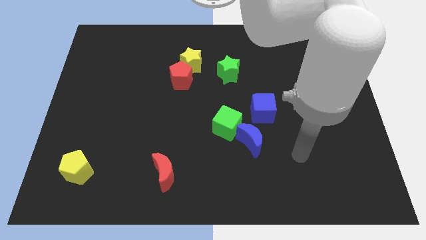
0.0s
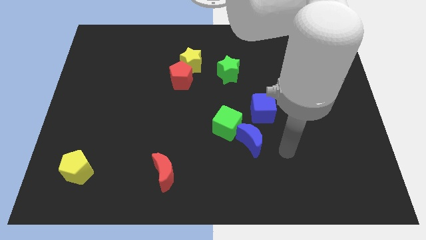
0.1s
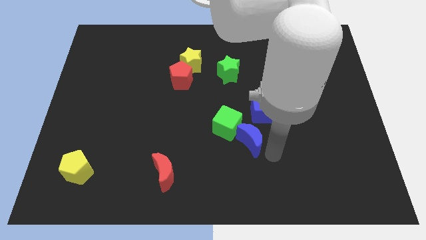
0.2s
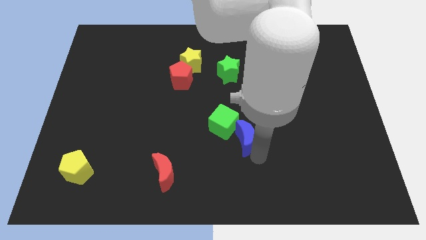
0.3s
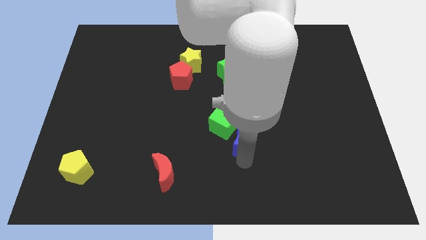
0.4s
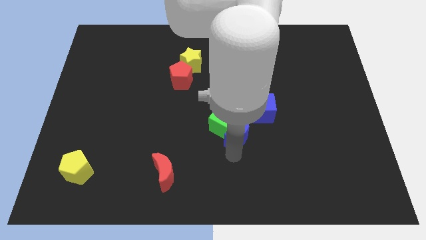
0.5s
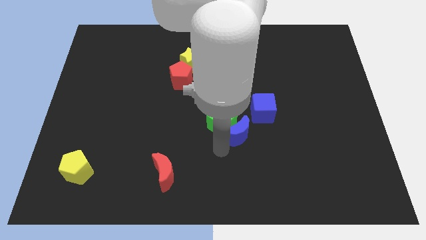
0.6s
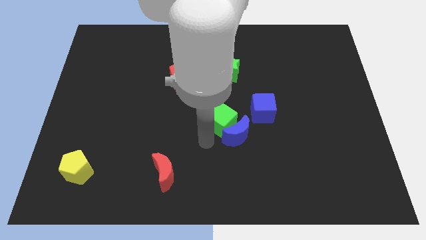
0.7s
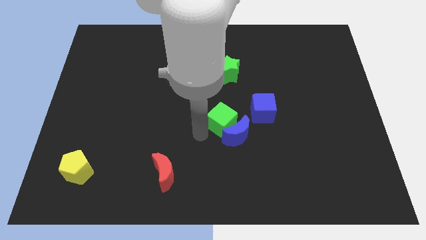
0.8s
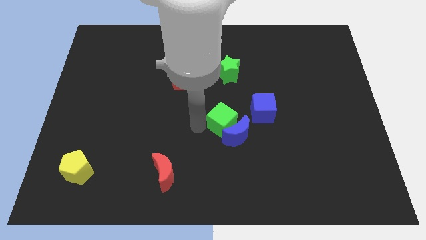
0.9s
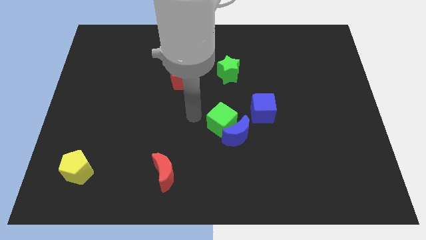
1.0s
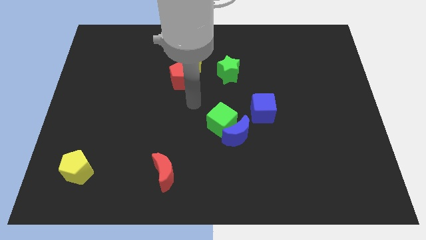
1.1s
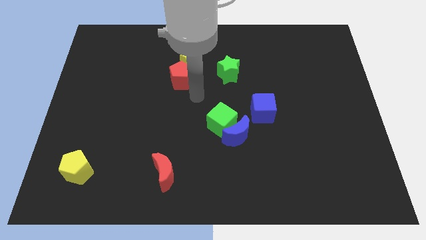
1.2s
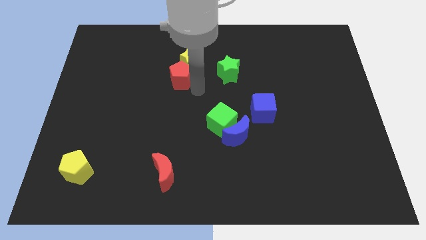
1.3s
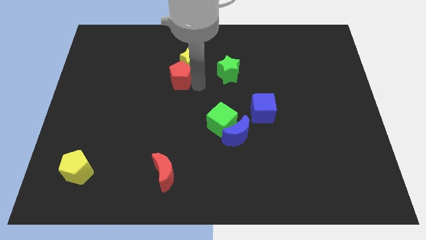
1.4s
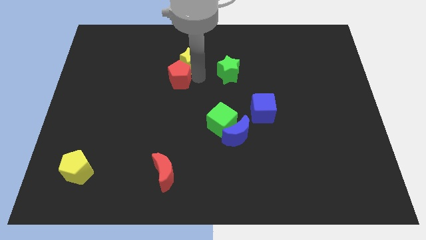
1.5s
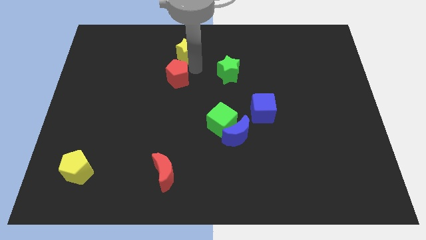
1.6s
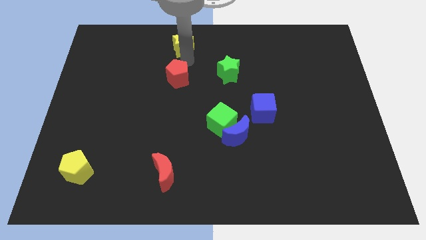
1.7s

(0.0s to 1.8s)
pull the red pentagon apart from the yellow star

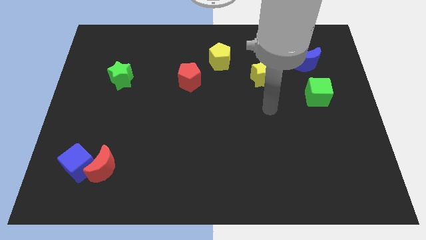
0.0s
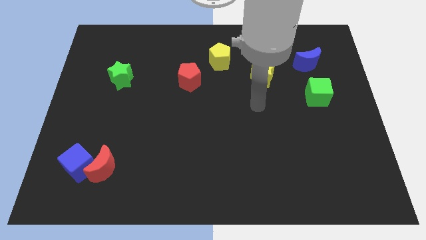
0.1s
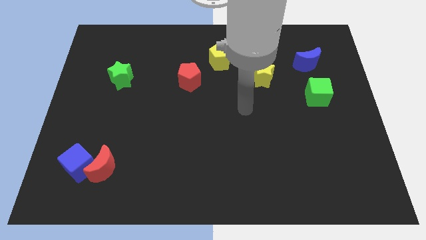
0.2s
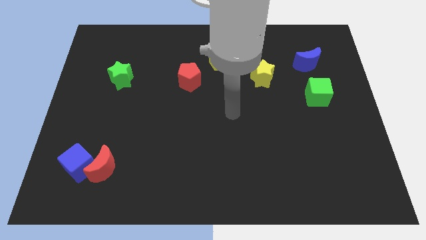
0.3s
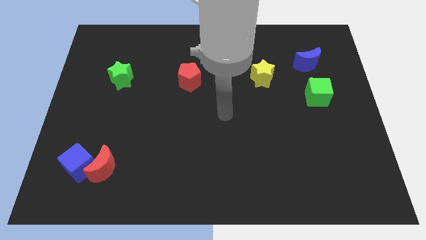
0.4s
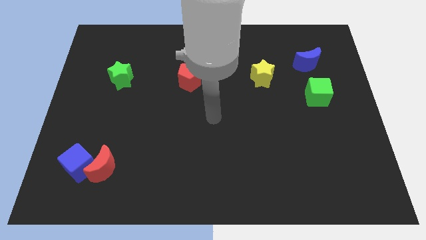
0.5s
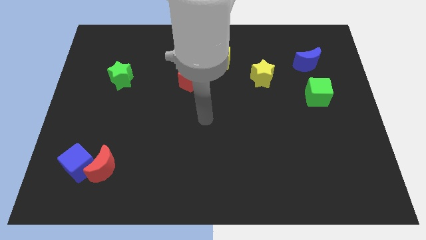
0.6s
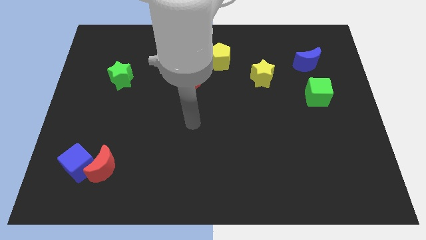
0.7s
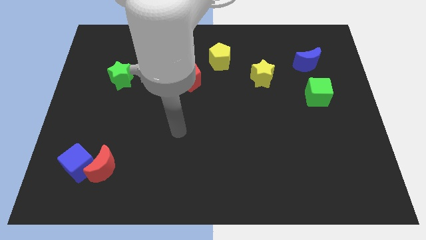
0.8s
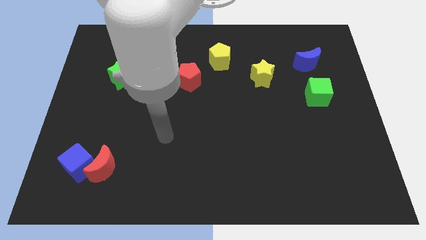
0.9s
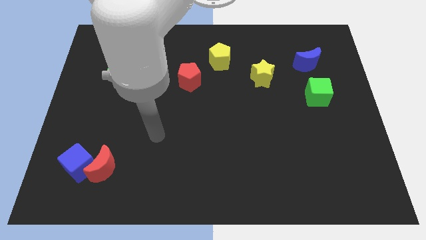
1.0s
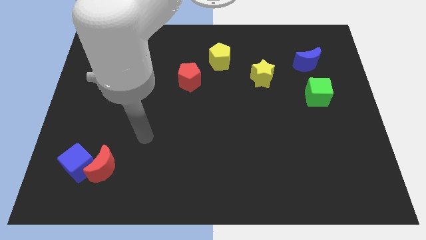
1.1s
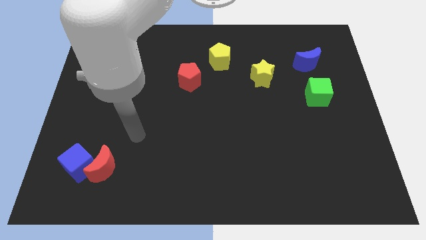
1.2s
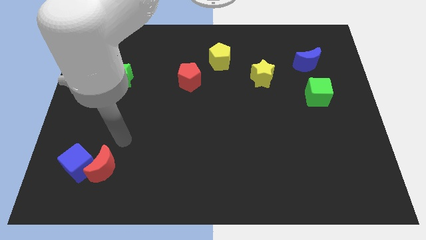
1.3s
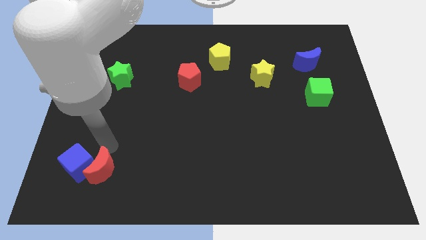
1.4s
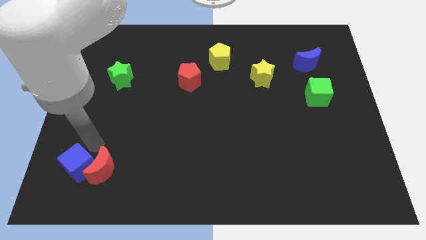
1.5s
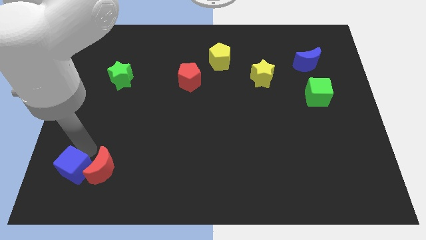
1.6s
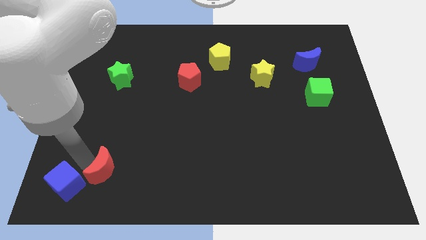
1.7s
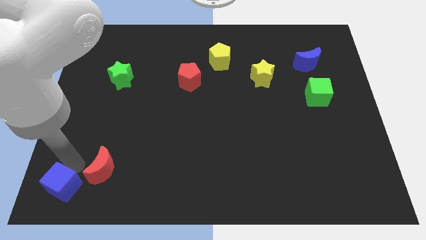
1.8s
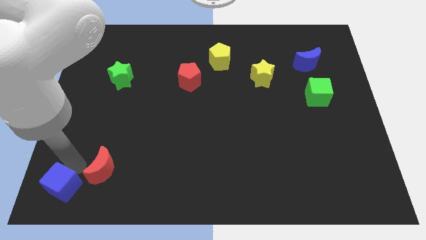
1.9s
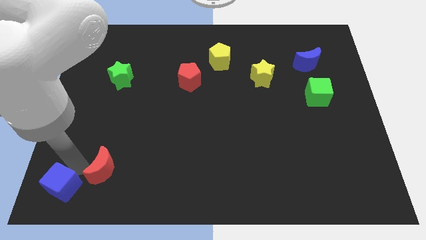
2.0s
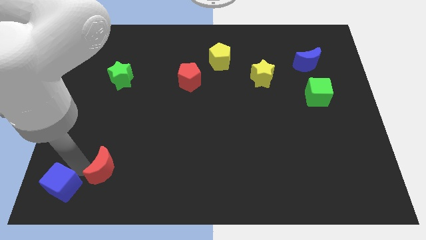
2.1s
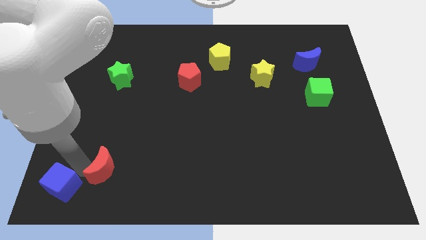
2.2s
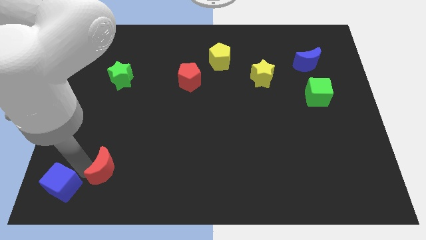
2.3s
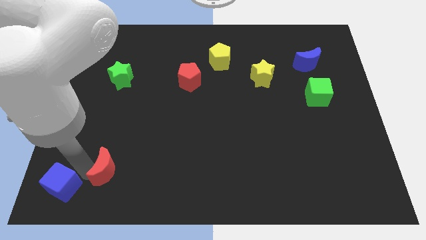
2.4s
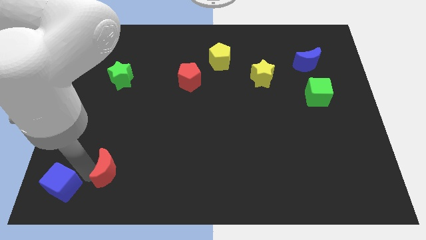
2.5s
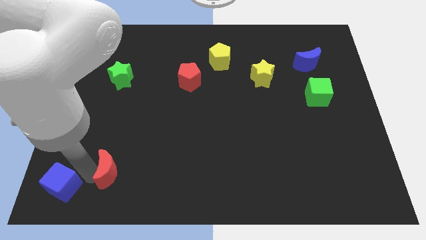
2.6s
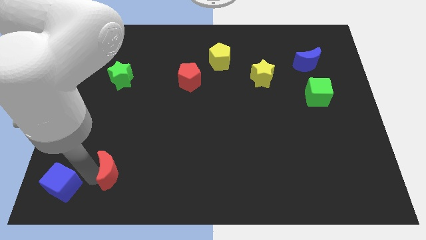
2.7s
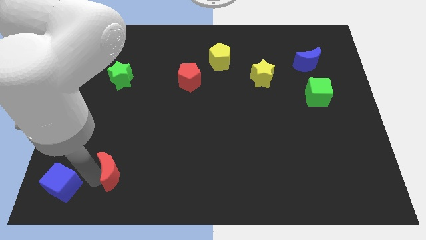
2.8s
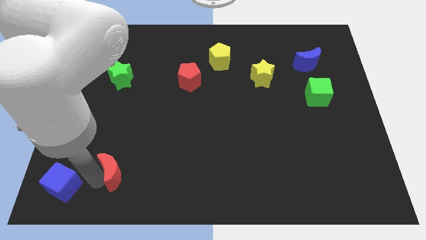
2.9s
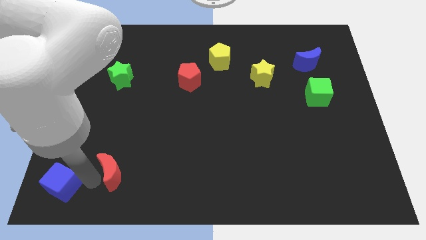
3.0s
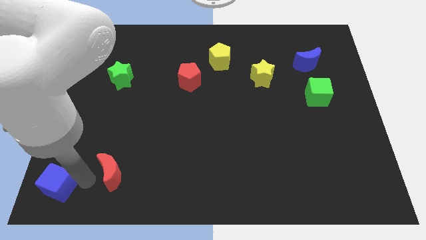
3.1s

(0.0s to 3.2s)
move the red moon away from the blue cube

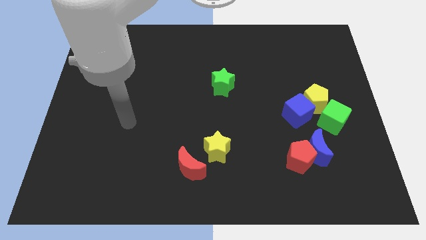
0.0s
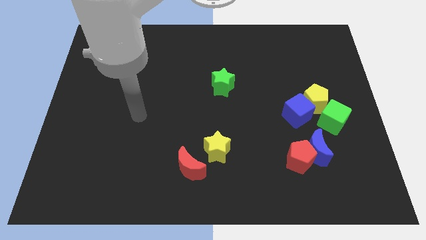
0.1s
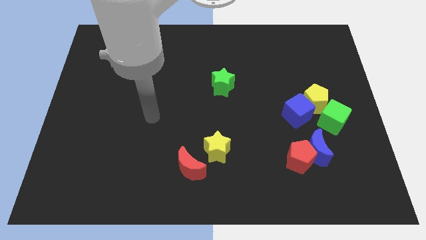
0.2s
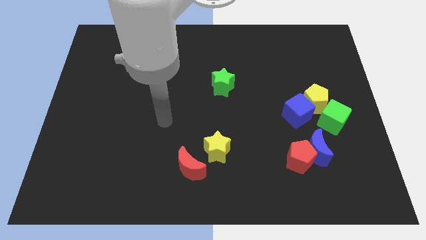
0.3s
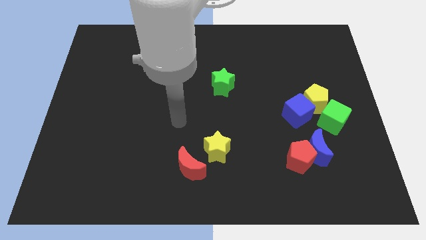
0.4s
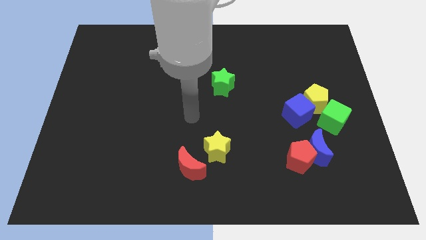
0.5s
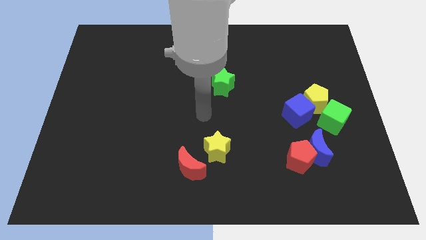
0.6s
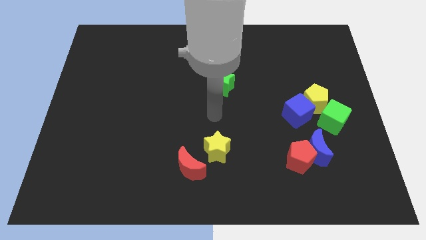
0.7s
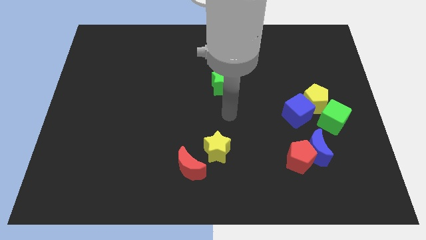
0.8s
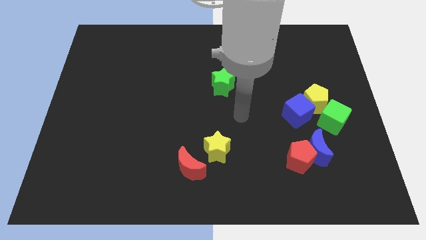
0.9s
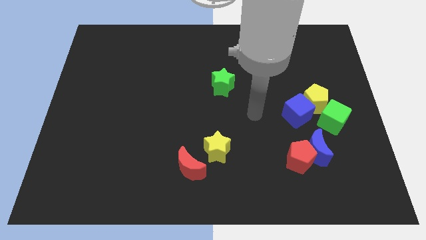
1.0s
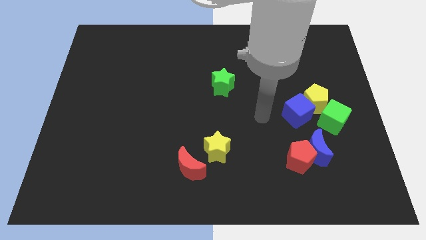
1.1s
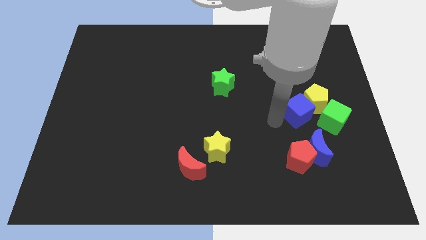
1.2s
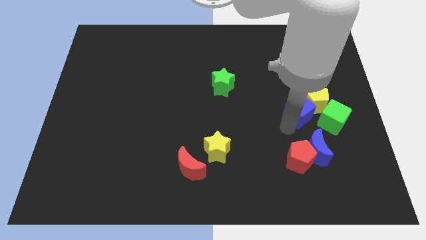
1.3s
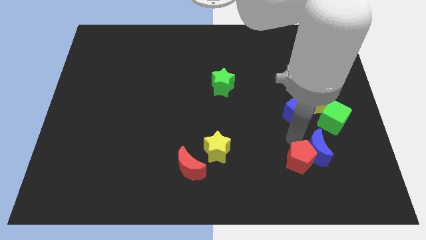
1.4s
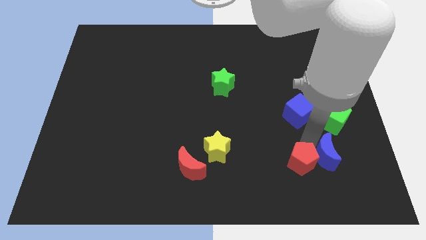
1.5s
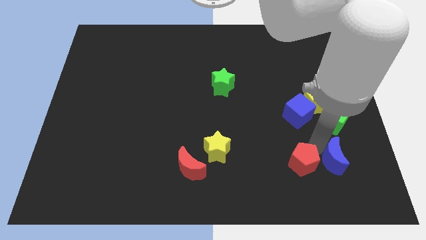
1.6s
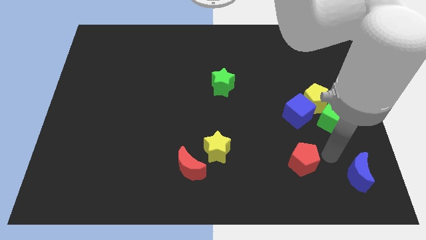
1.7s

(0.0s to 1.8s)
separate the red pentagon from the blue moon

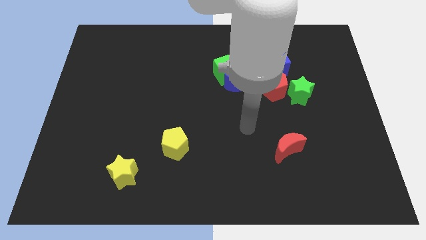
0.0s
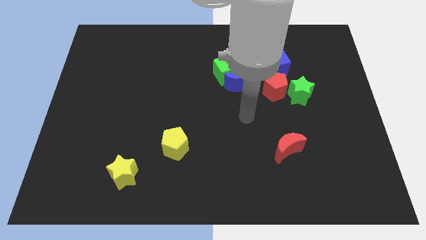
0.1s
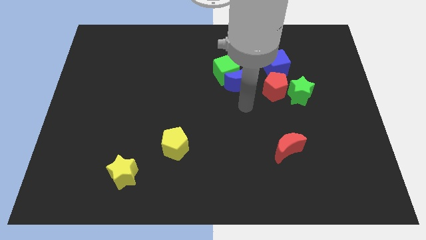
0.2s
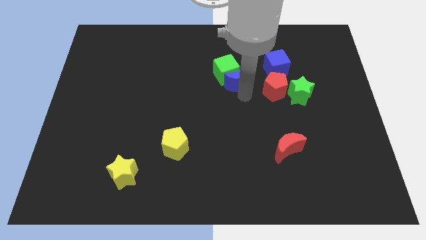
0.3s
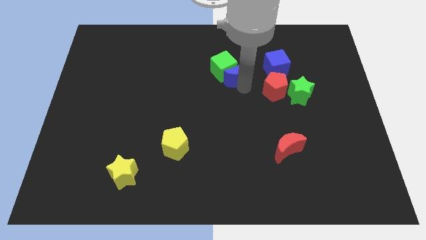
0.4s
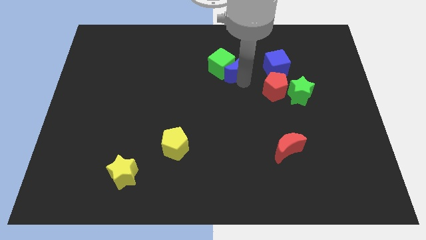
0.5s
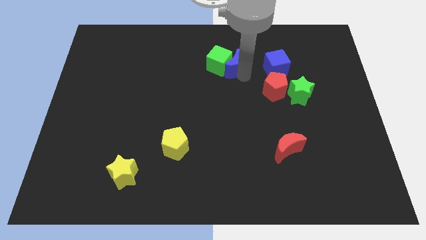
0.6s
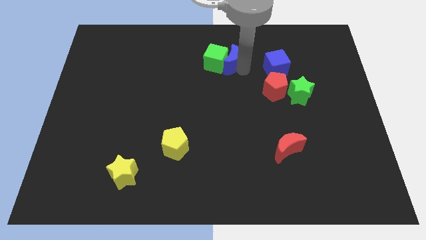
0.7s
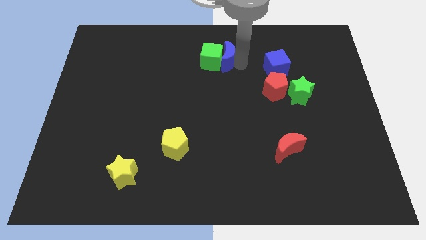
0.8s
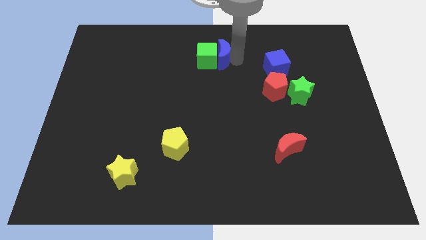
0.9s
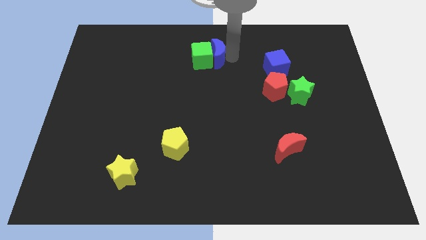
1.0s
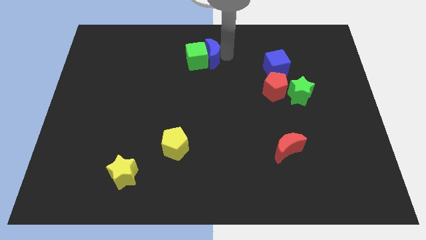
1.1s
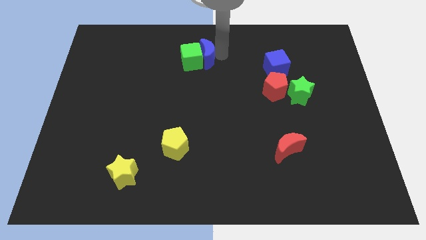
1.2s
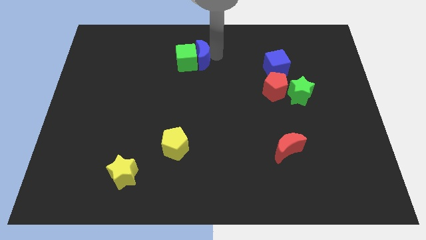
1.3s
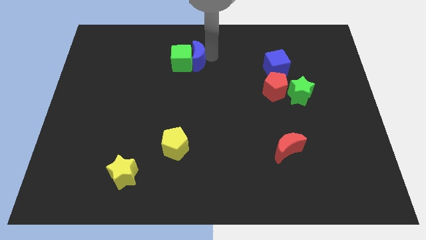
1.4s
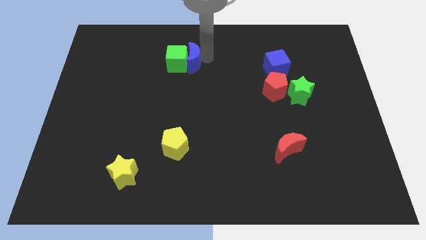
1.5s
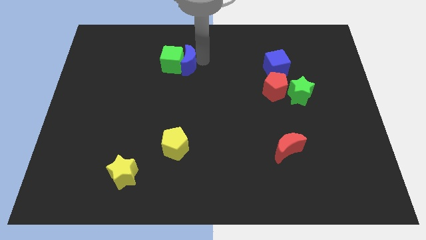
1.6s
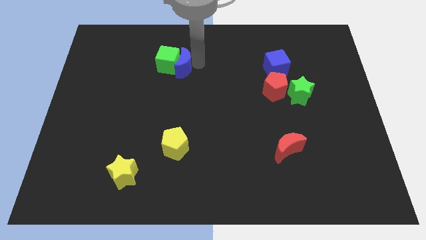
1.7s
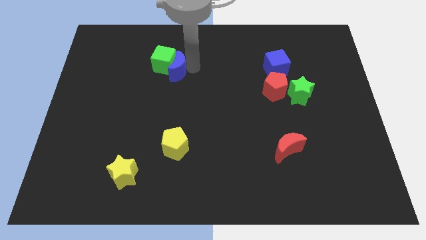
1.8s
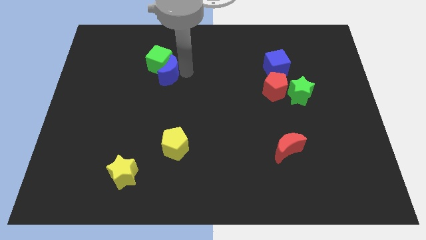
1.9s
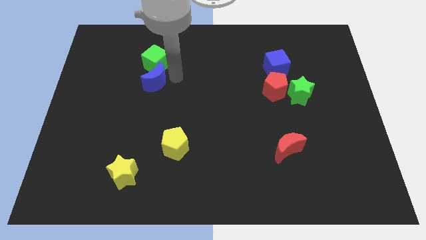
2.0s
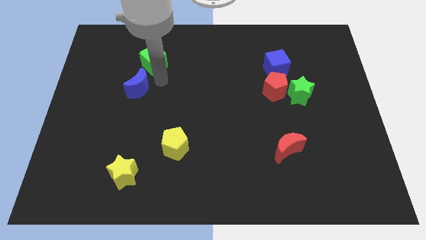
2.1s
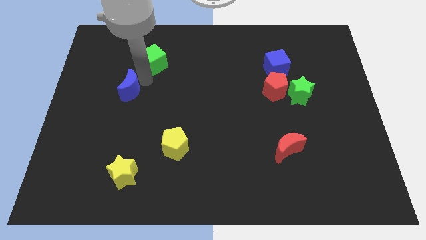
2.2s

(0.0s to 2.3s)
pull the green cube apart from the blue moon

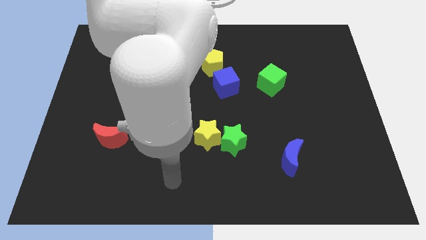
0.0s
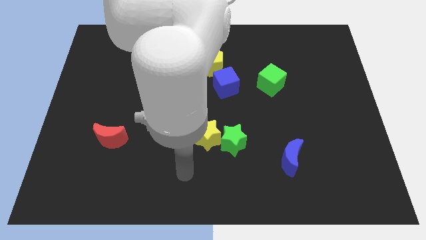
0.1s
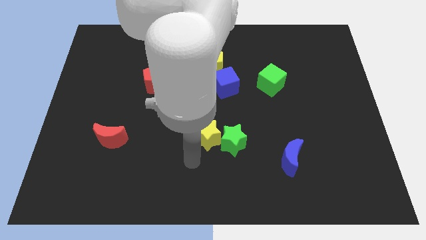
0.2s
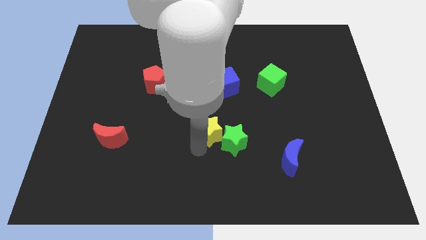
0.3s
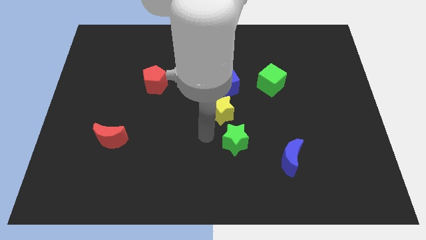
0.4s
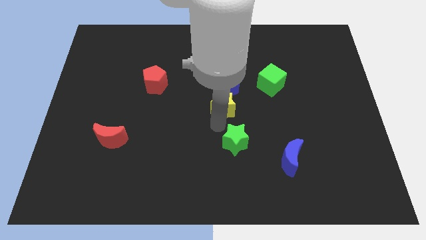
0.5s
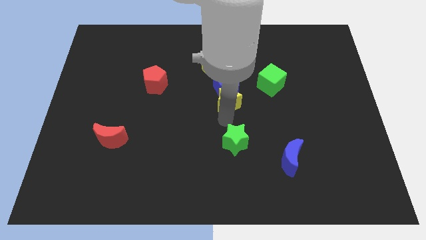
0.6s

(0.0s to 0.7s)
move the green star away from the yellow star
